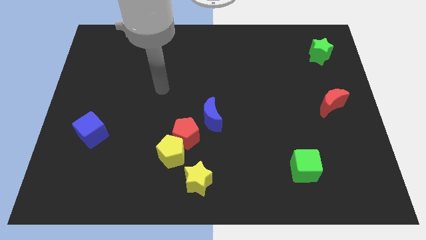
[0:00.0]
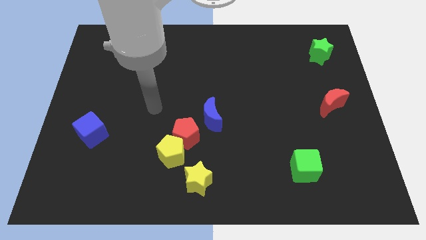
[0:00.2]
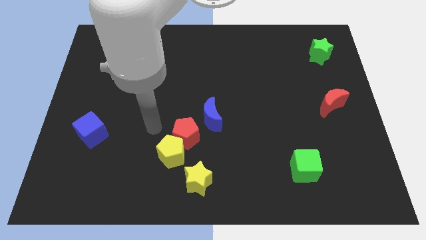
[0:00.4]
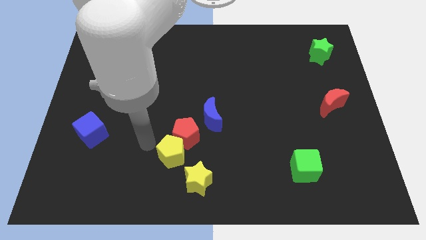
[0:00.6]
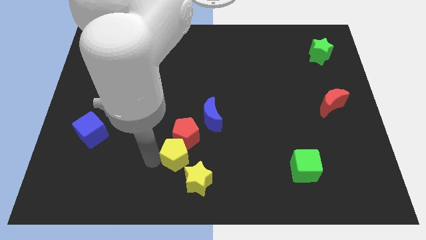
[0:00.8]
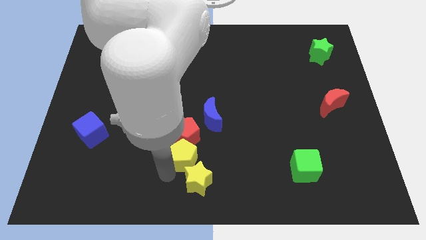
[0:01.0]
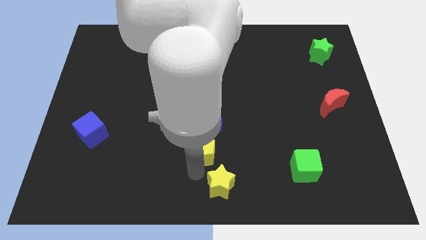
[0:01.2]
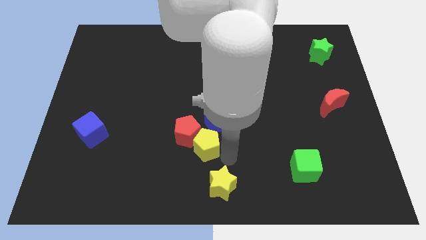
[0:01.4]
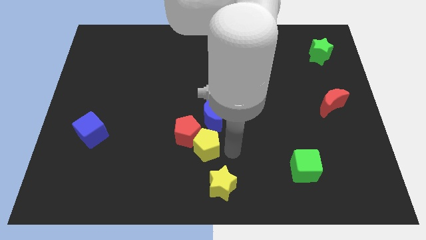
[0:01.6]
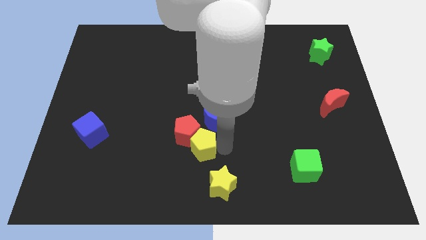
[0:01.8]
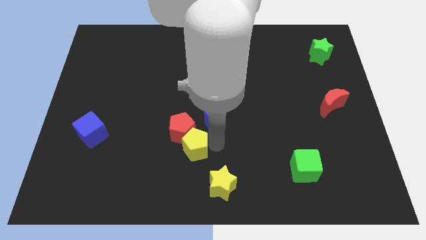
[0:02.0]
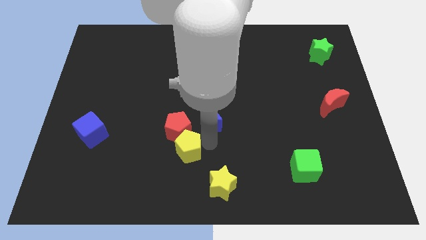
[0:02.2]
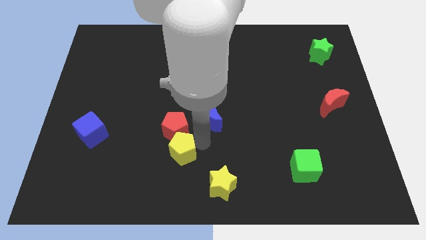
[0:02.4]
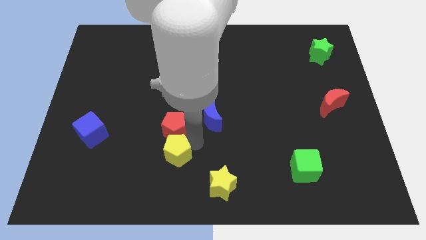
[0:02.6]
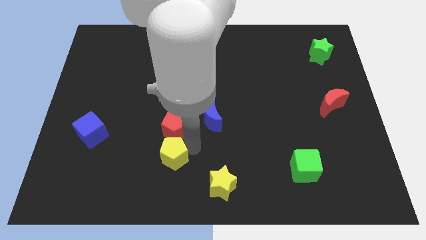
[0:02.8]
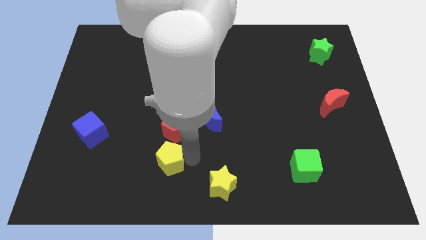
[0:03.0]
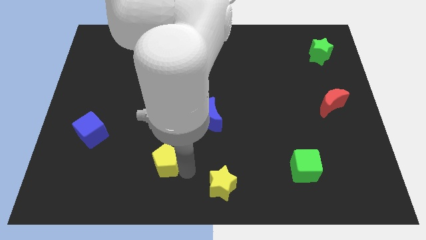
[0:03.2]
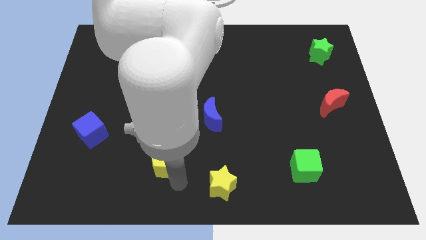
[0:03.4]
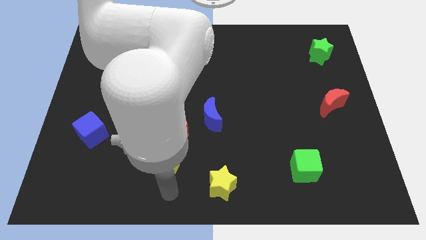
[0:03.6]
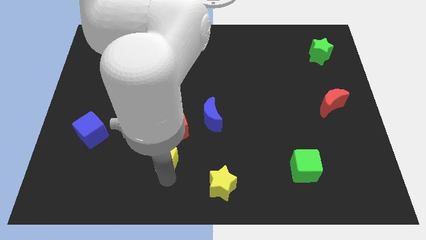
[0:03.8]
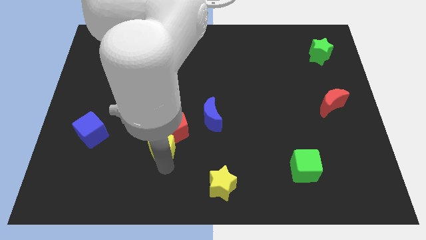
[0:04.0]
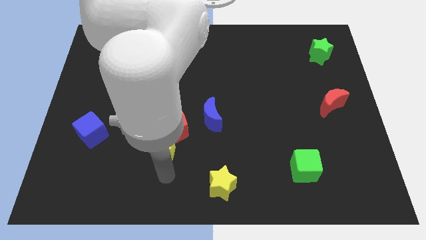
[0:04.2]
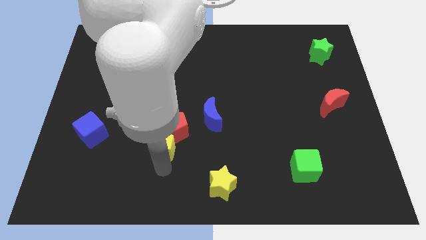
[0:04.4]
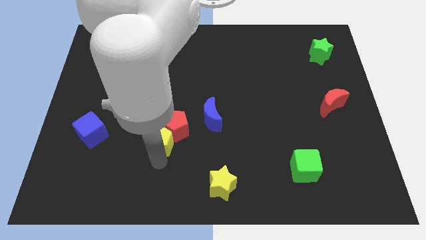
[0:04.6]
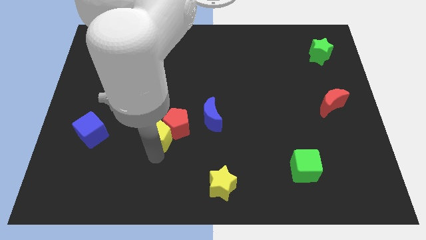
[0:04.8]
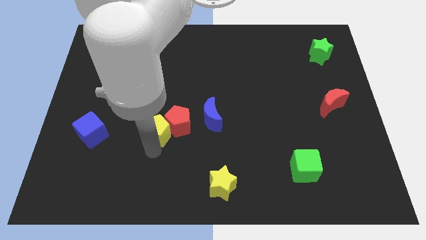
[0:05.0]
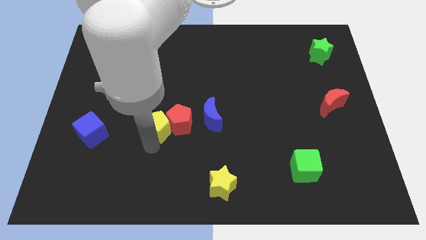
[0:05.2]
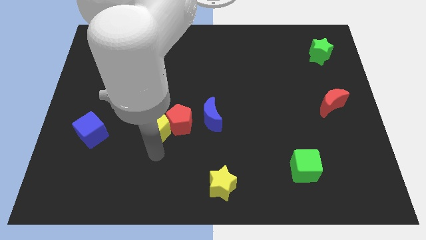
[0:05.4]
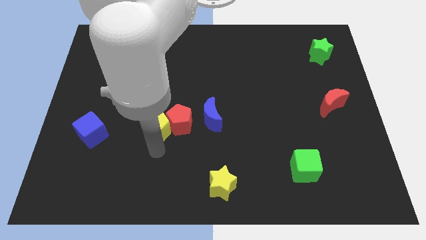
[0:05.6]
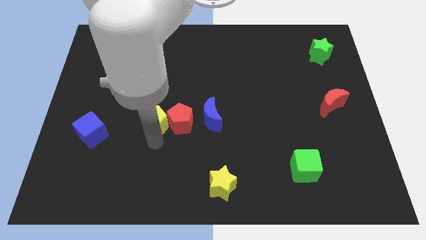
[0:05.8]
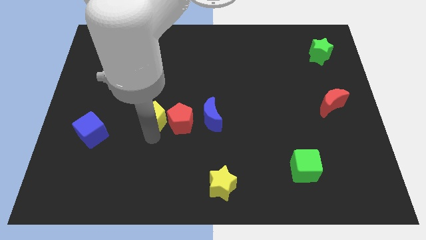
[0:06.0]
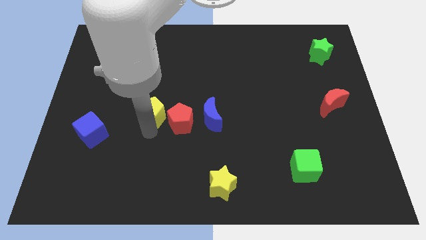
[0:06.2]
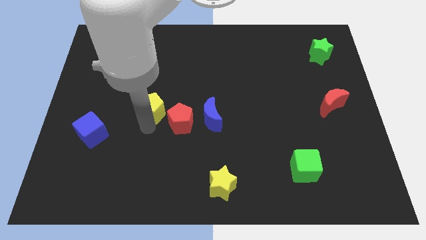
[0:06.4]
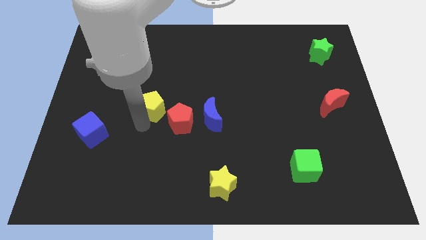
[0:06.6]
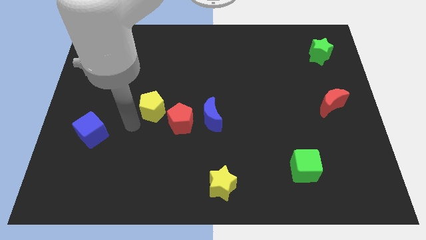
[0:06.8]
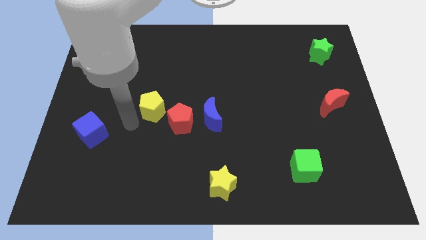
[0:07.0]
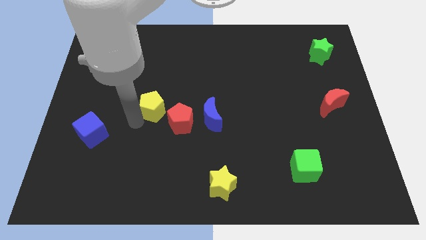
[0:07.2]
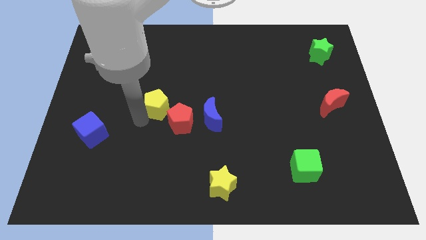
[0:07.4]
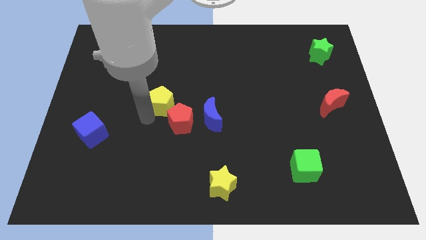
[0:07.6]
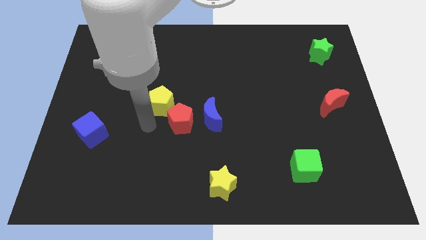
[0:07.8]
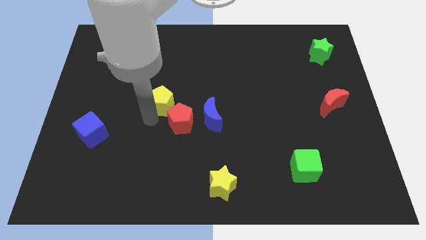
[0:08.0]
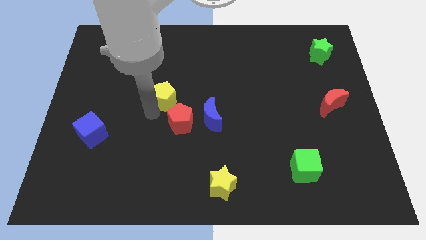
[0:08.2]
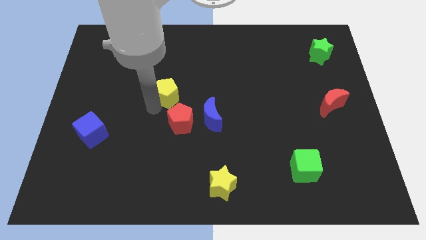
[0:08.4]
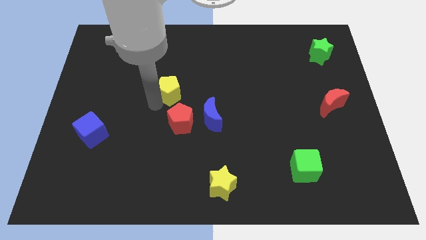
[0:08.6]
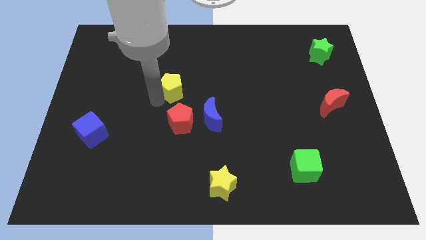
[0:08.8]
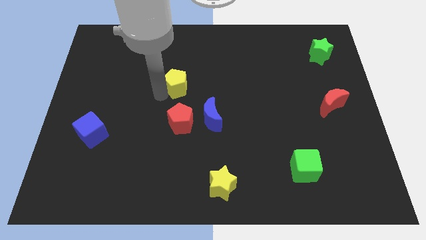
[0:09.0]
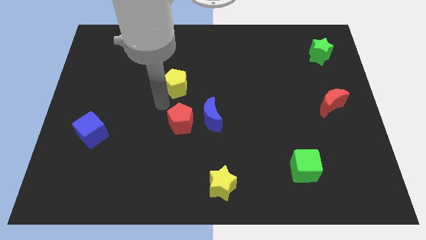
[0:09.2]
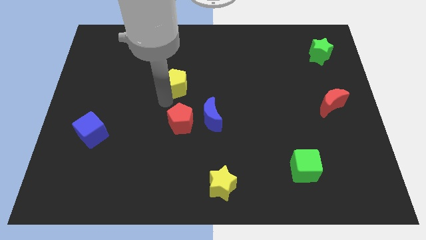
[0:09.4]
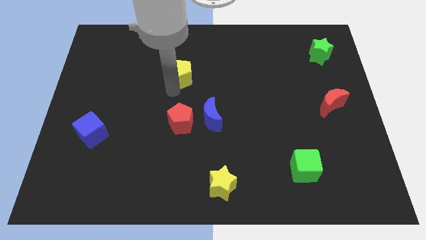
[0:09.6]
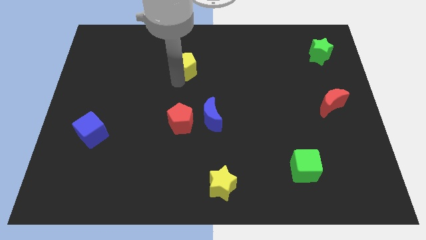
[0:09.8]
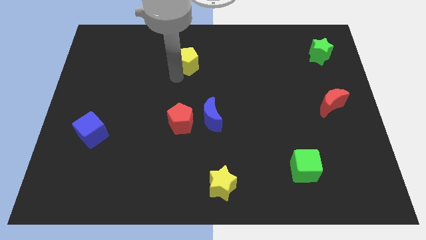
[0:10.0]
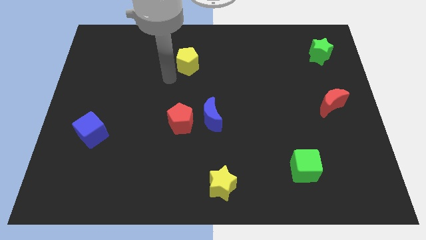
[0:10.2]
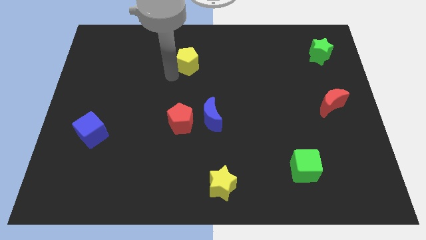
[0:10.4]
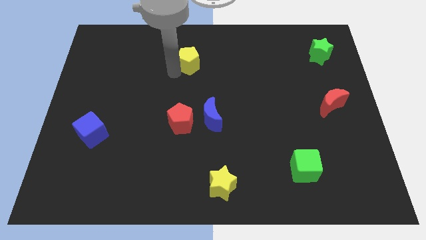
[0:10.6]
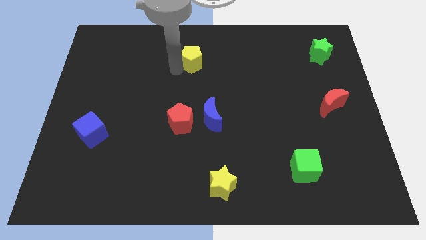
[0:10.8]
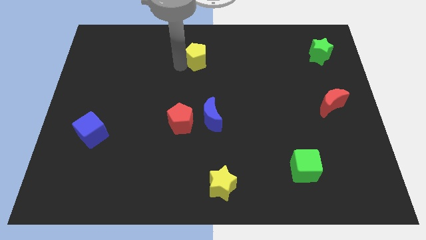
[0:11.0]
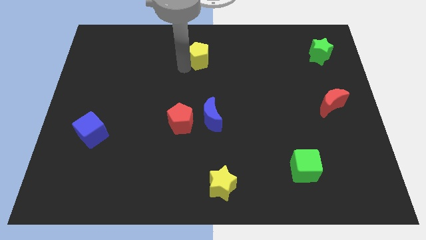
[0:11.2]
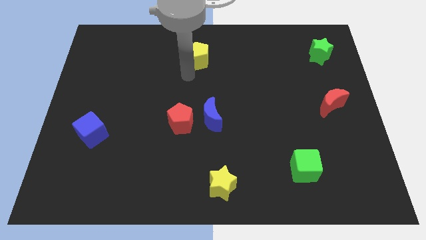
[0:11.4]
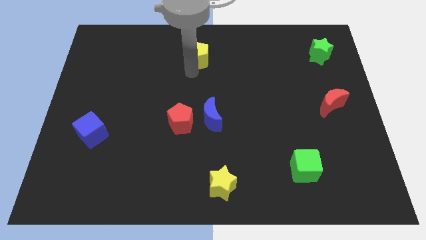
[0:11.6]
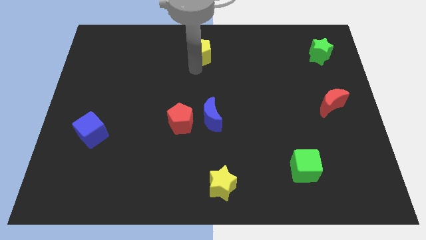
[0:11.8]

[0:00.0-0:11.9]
slide the yellow pentagon to the top side
